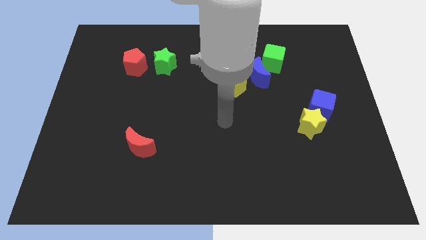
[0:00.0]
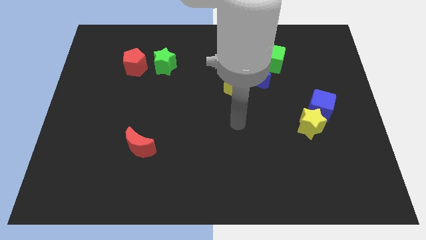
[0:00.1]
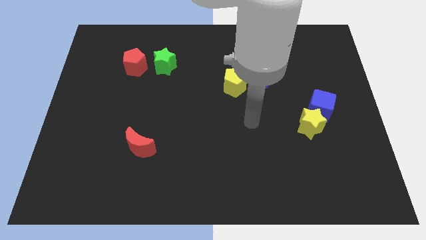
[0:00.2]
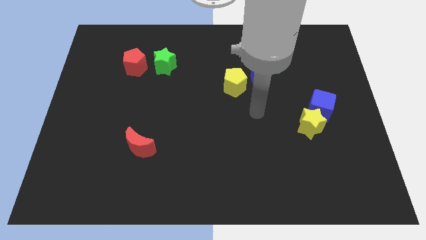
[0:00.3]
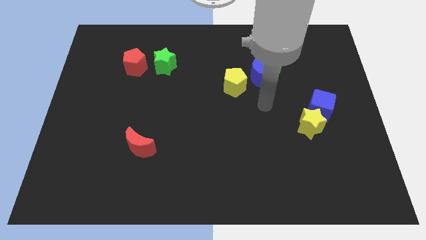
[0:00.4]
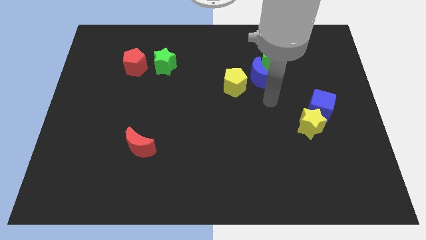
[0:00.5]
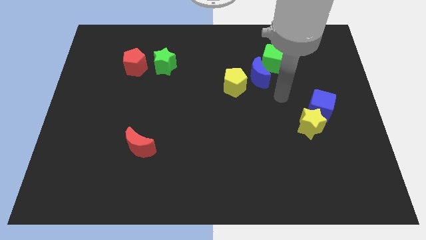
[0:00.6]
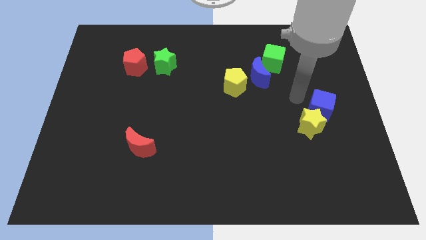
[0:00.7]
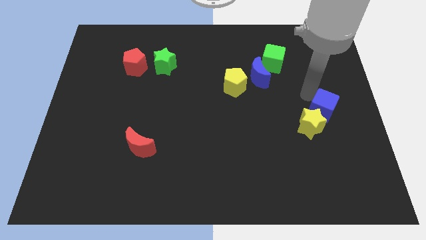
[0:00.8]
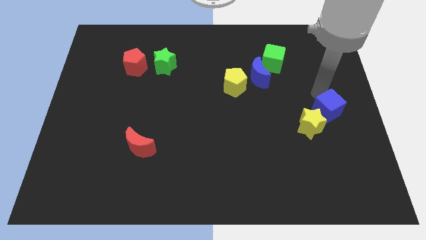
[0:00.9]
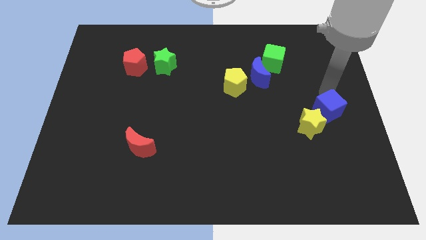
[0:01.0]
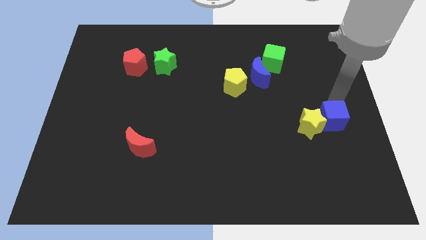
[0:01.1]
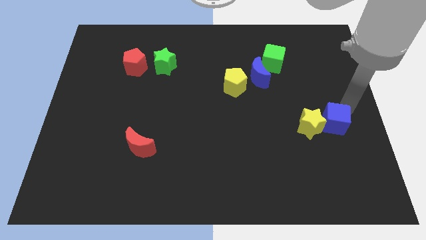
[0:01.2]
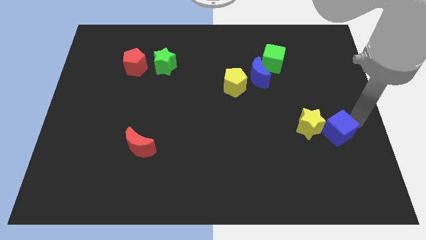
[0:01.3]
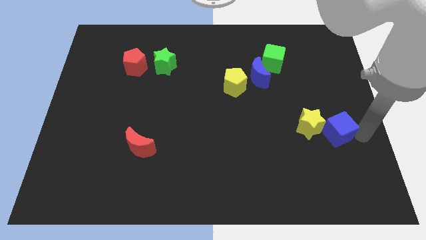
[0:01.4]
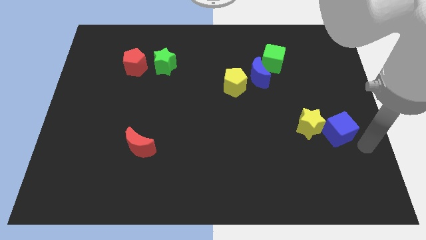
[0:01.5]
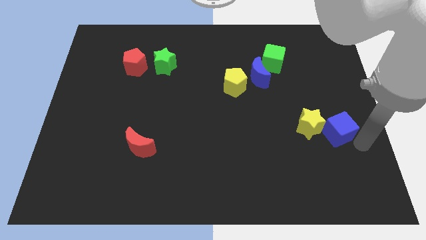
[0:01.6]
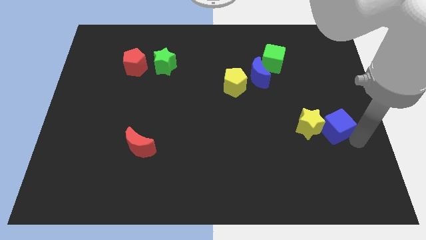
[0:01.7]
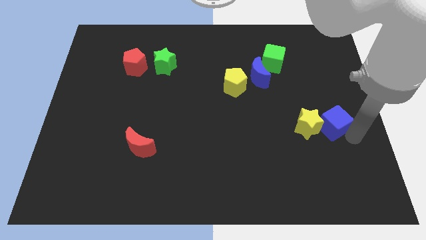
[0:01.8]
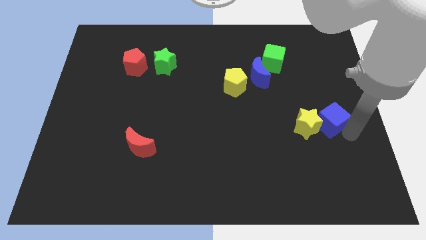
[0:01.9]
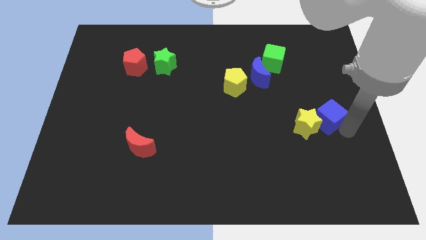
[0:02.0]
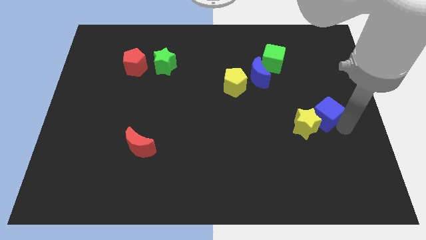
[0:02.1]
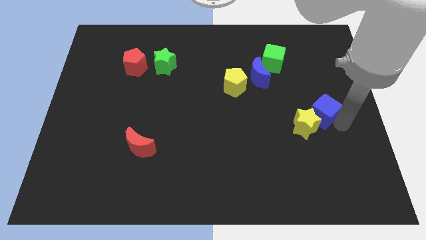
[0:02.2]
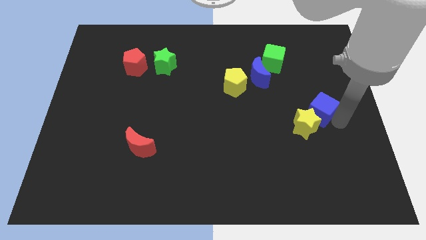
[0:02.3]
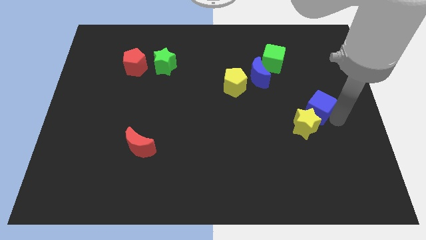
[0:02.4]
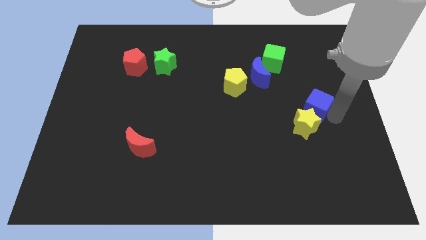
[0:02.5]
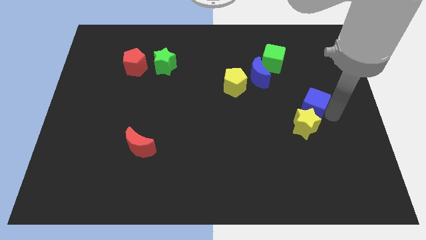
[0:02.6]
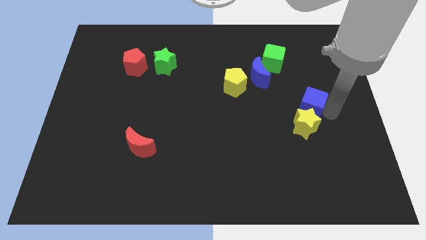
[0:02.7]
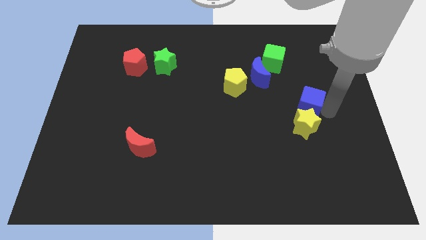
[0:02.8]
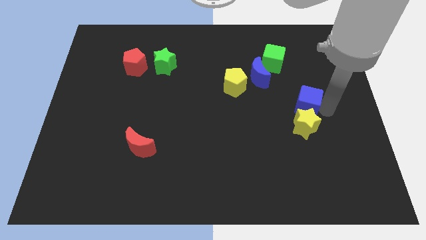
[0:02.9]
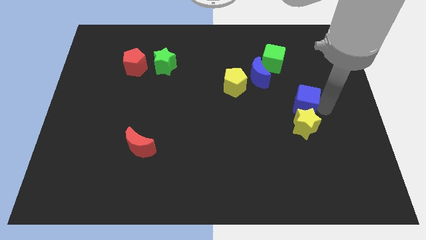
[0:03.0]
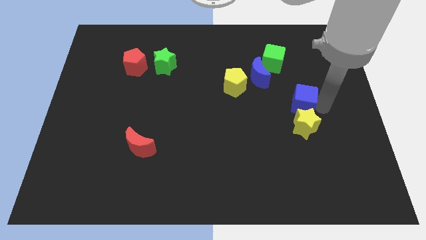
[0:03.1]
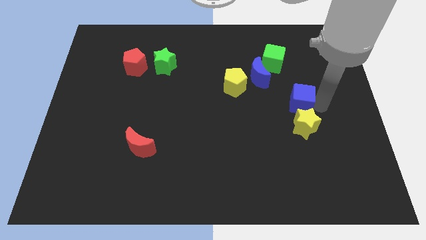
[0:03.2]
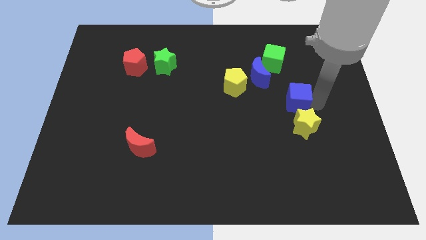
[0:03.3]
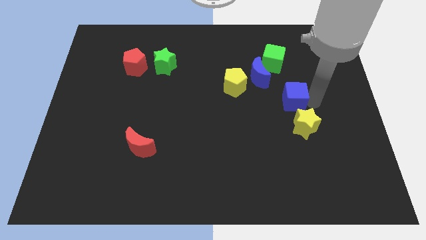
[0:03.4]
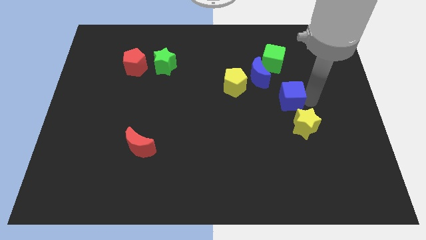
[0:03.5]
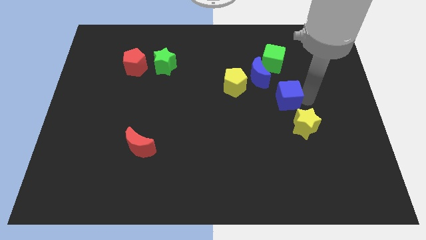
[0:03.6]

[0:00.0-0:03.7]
slightly move the blue cube left

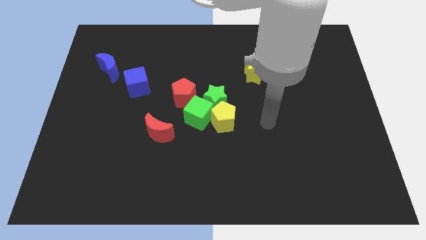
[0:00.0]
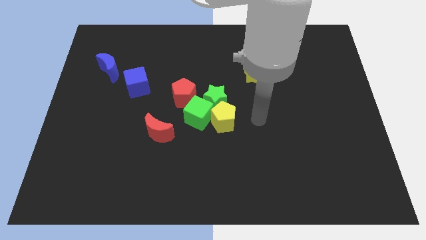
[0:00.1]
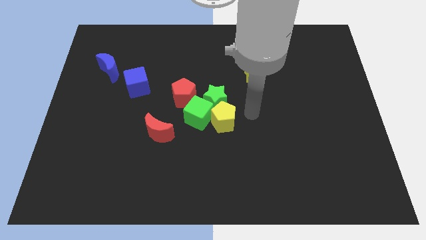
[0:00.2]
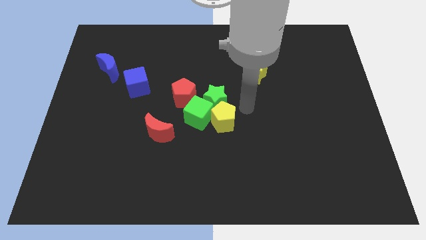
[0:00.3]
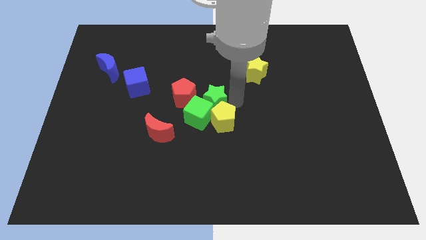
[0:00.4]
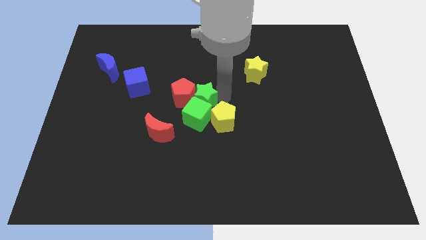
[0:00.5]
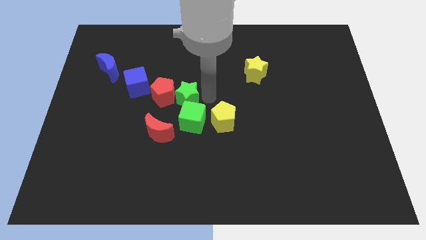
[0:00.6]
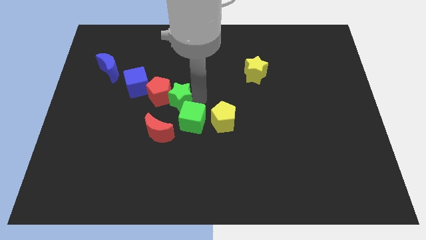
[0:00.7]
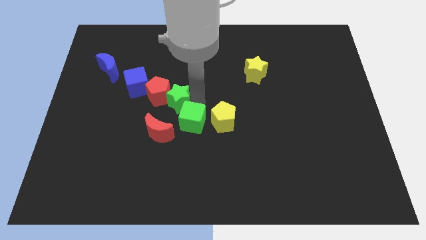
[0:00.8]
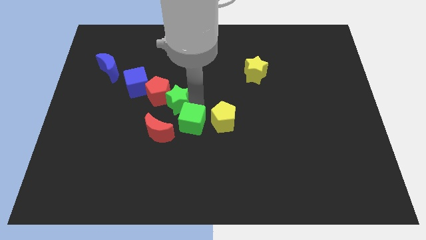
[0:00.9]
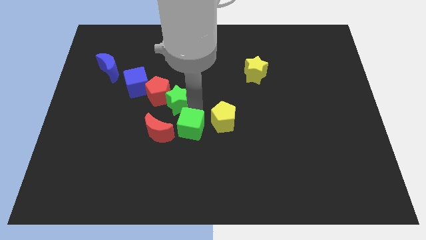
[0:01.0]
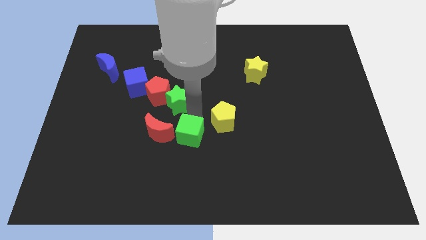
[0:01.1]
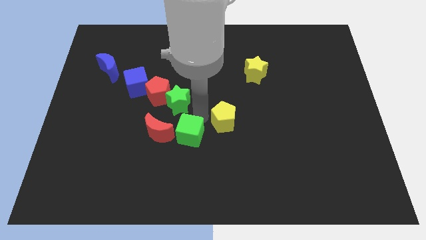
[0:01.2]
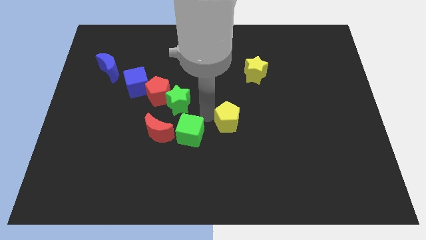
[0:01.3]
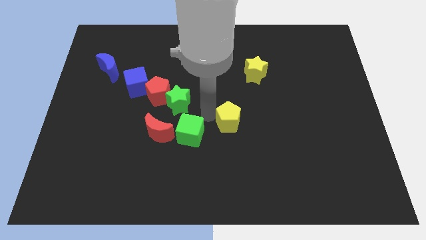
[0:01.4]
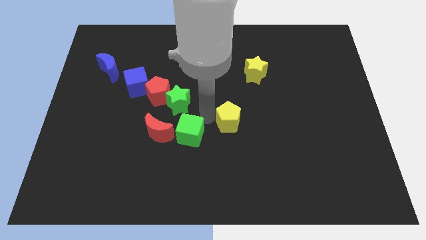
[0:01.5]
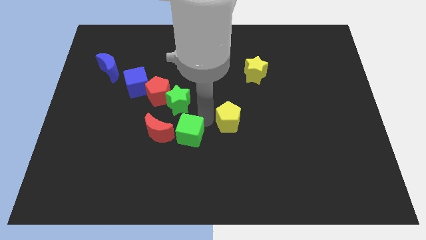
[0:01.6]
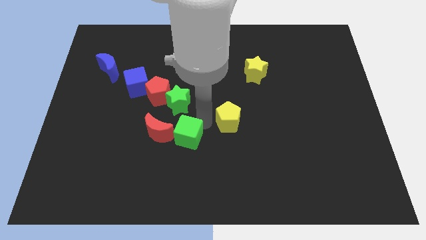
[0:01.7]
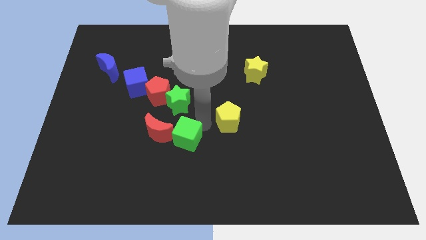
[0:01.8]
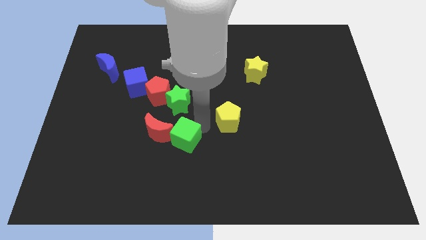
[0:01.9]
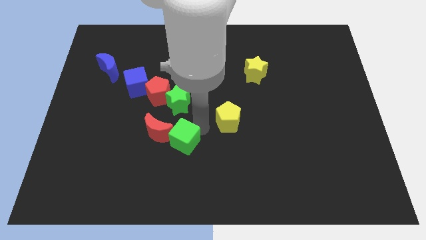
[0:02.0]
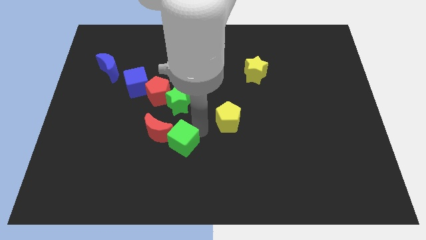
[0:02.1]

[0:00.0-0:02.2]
move the green cube a little down and to the left diagonally

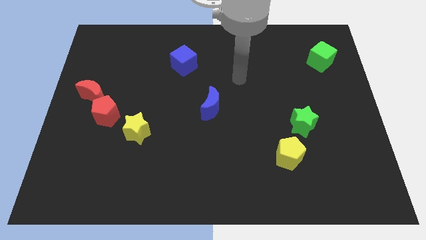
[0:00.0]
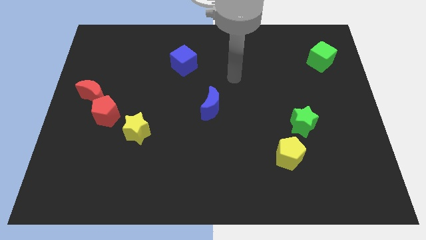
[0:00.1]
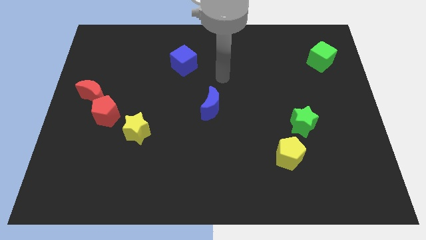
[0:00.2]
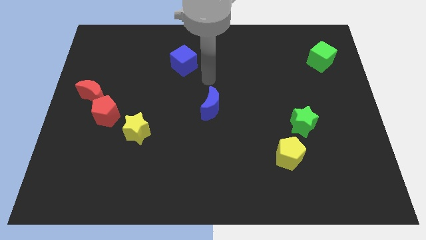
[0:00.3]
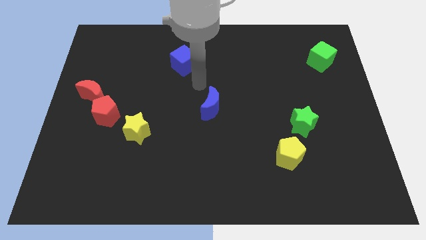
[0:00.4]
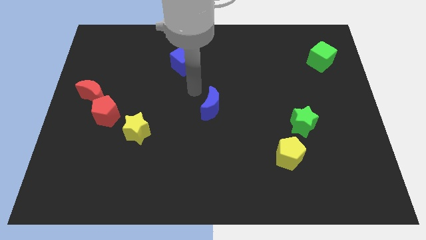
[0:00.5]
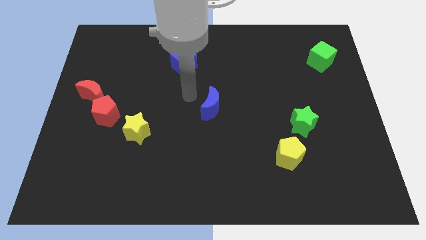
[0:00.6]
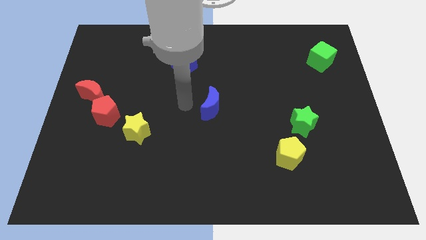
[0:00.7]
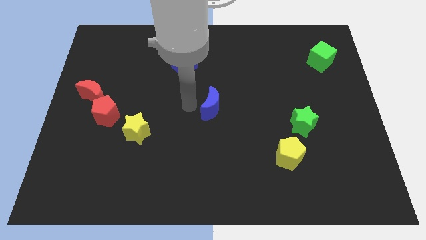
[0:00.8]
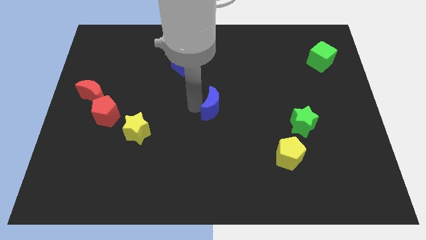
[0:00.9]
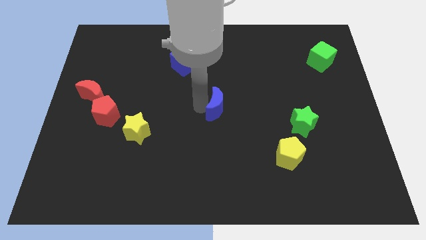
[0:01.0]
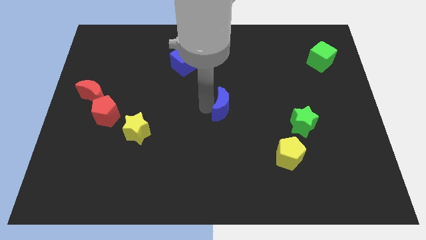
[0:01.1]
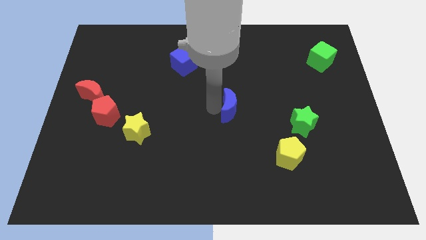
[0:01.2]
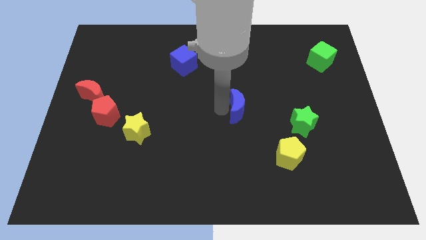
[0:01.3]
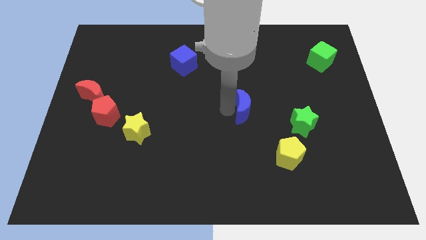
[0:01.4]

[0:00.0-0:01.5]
slightly push the blue moon to the right

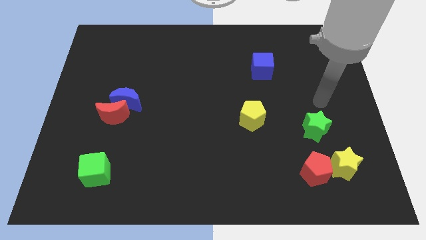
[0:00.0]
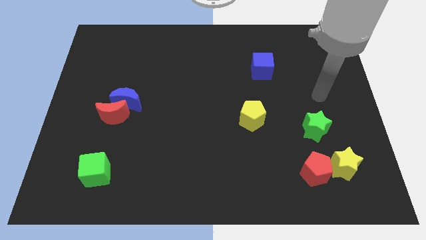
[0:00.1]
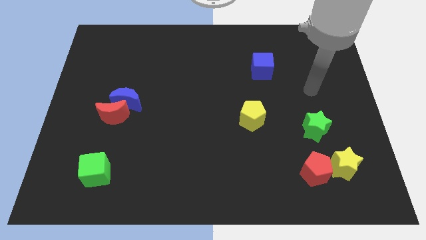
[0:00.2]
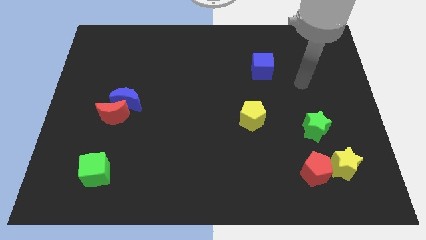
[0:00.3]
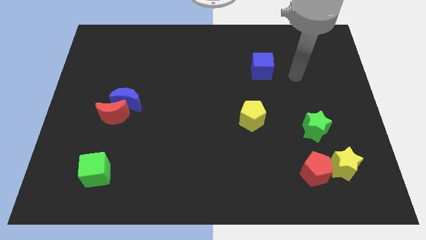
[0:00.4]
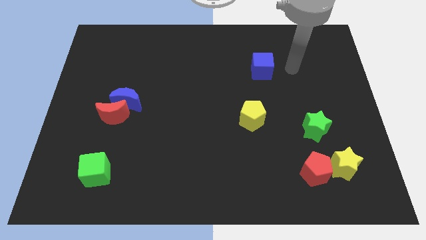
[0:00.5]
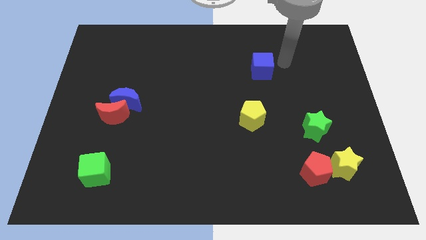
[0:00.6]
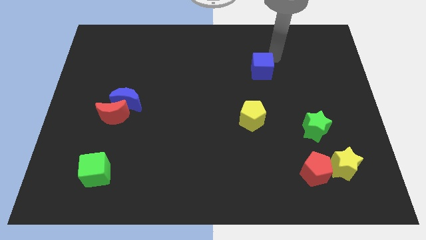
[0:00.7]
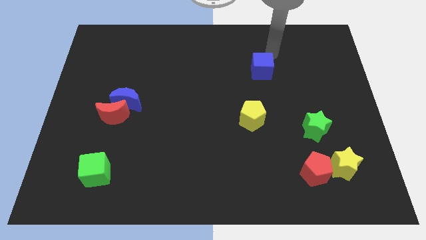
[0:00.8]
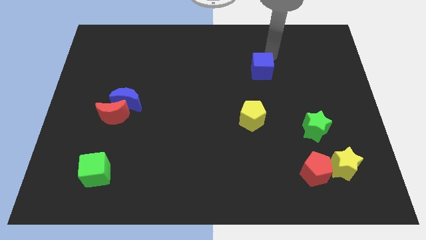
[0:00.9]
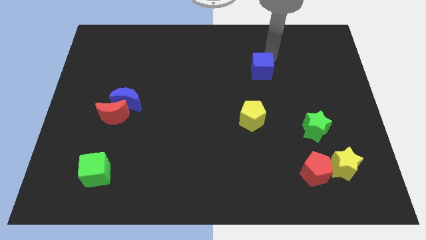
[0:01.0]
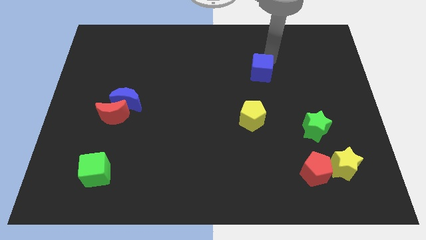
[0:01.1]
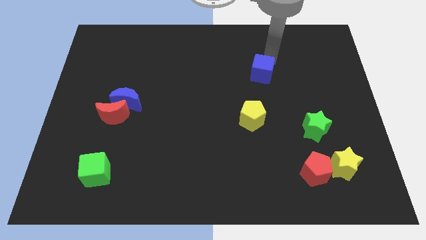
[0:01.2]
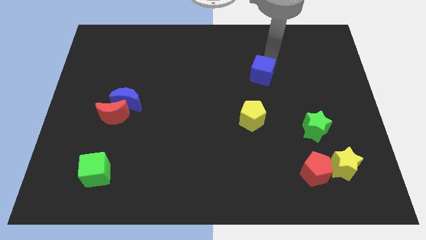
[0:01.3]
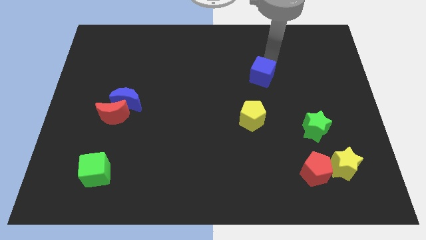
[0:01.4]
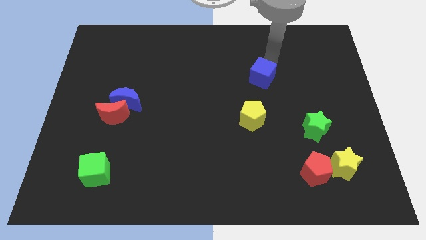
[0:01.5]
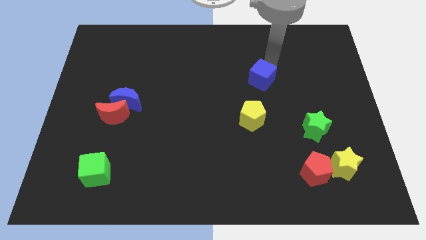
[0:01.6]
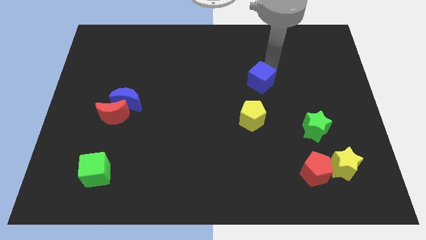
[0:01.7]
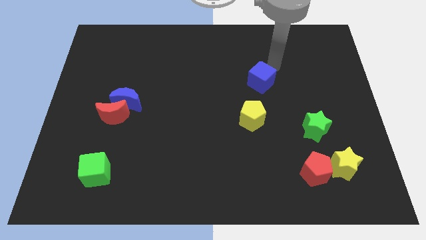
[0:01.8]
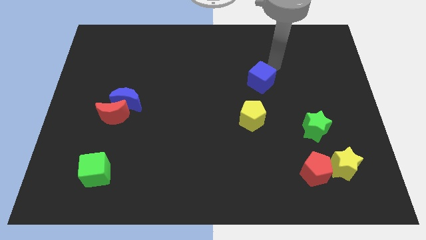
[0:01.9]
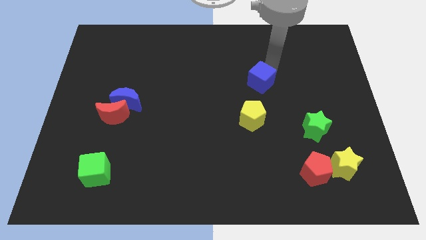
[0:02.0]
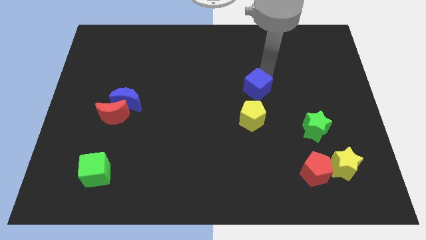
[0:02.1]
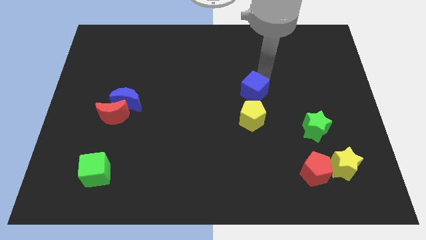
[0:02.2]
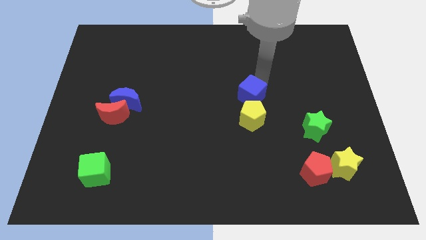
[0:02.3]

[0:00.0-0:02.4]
push the blue cube a little down and to the left diagonally
